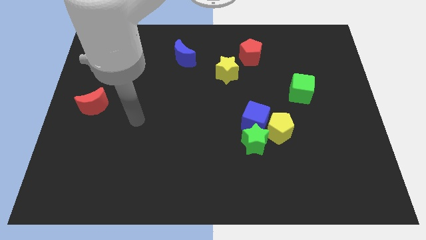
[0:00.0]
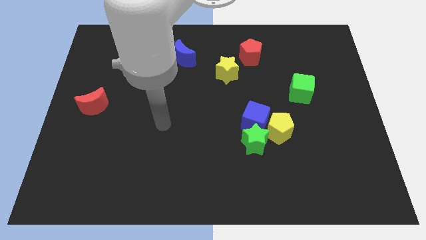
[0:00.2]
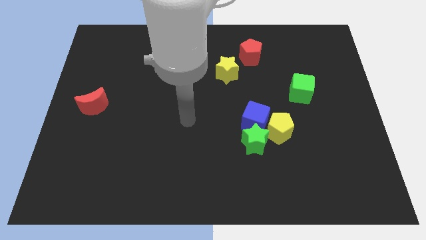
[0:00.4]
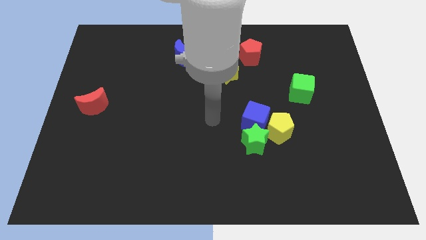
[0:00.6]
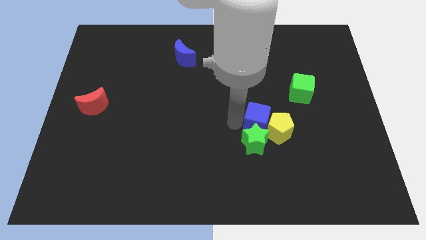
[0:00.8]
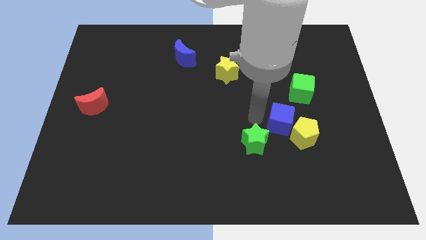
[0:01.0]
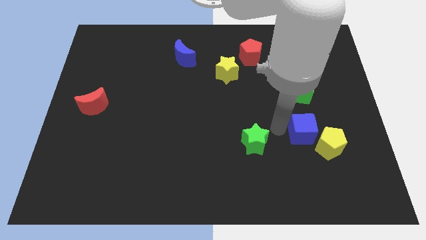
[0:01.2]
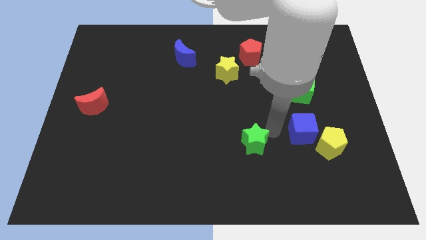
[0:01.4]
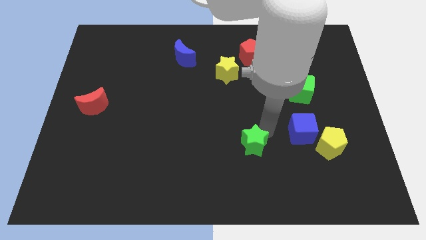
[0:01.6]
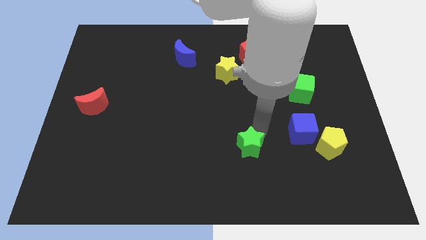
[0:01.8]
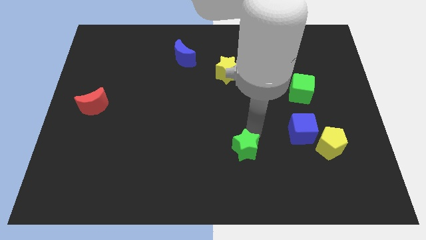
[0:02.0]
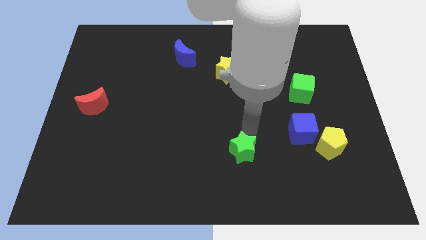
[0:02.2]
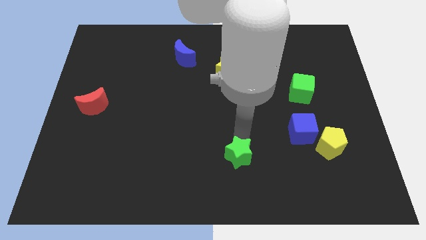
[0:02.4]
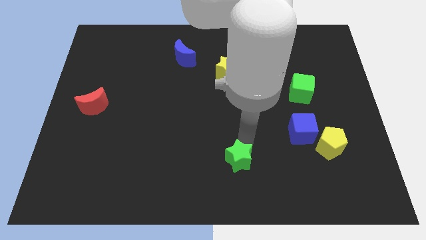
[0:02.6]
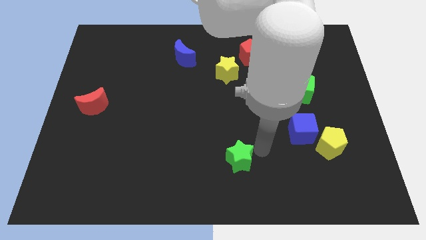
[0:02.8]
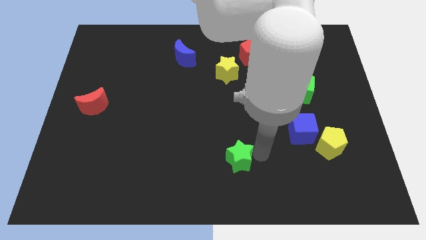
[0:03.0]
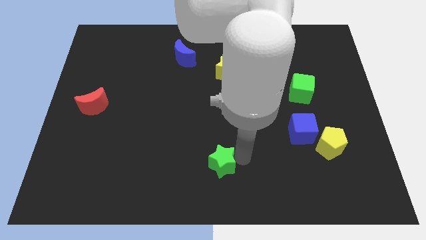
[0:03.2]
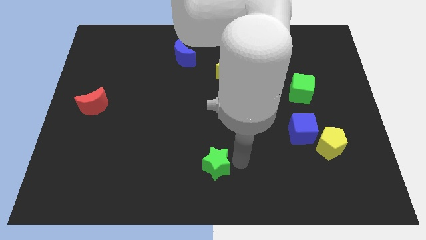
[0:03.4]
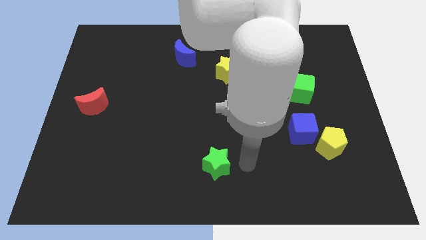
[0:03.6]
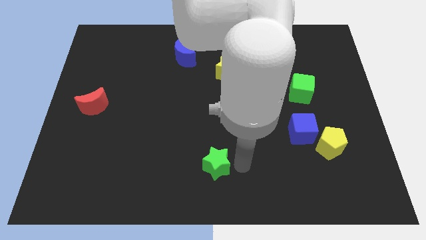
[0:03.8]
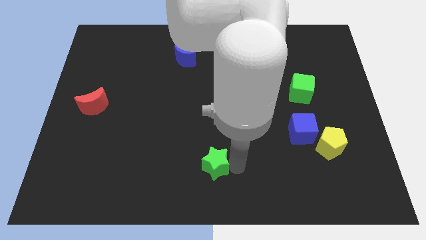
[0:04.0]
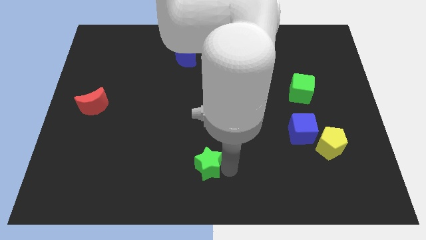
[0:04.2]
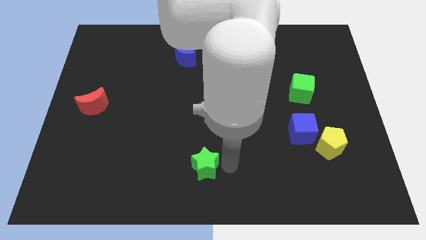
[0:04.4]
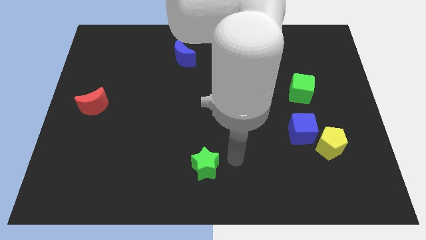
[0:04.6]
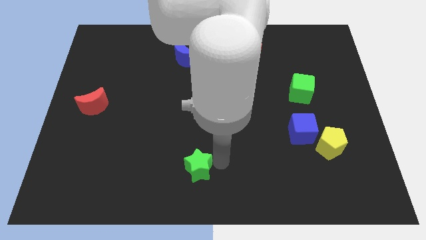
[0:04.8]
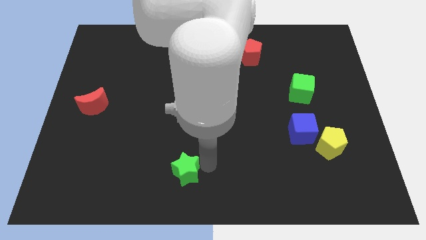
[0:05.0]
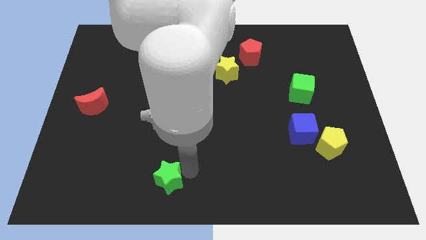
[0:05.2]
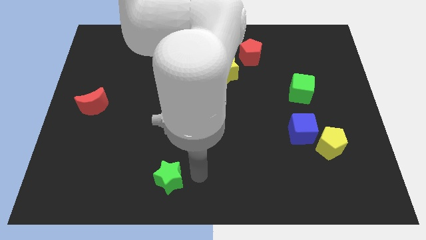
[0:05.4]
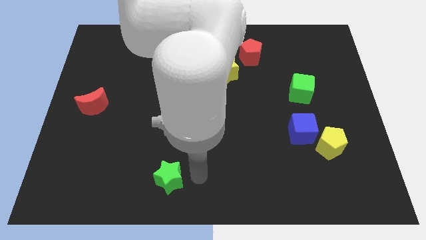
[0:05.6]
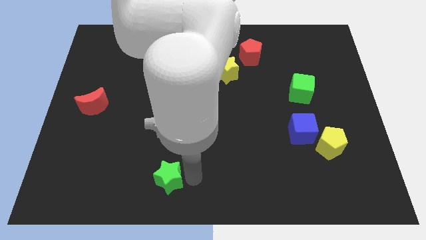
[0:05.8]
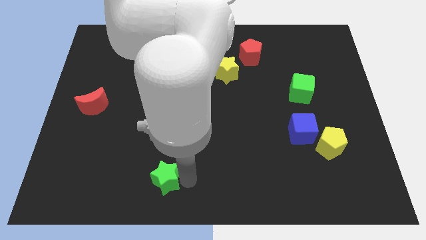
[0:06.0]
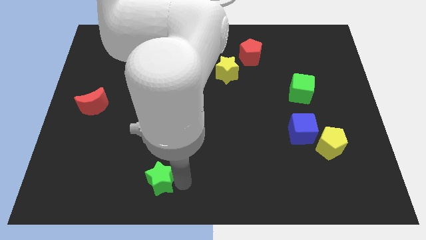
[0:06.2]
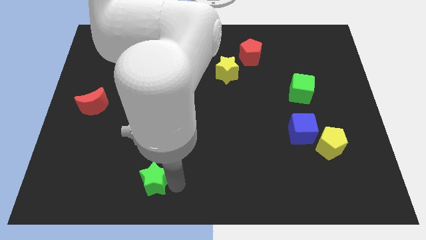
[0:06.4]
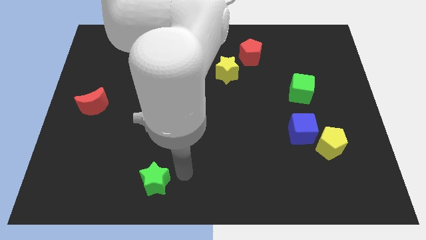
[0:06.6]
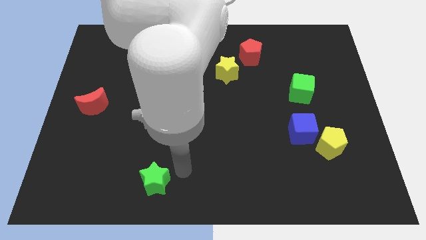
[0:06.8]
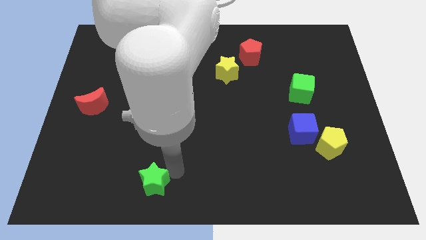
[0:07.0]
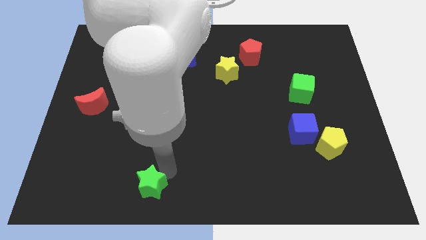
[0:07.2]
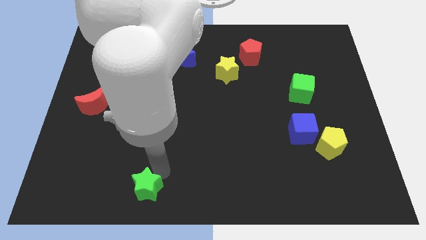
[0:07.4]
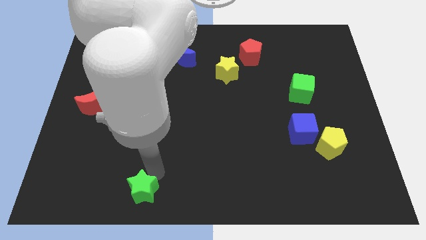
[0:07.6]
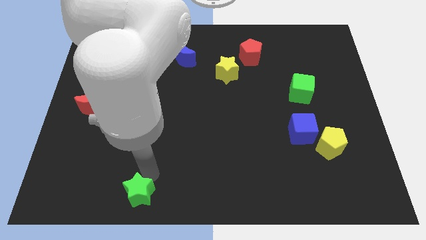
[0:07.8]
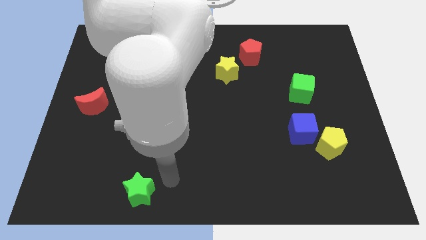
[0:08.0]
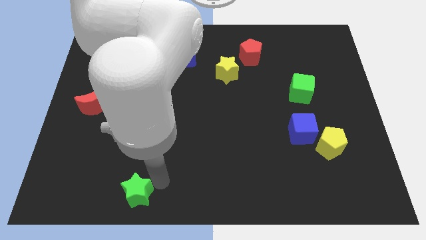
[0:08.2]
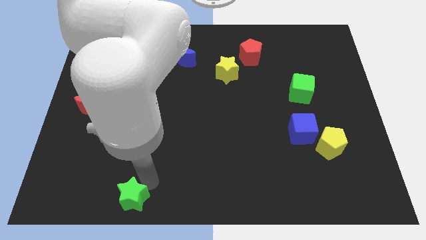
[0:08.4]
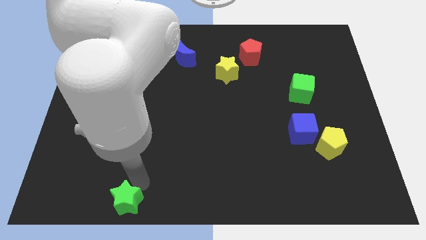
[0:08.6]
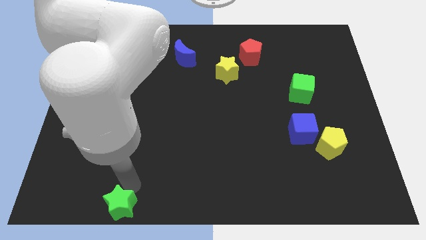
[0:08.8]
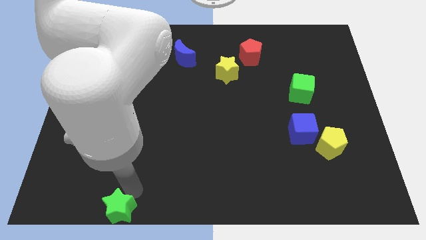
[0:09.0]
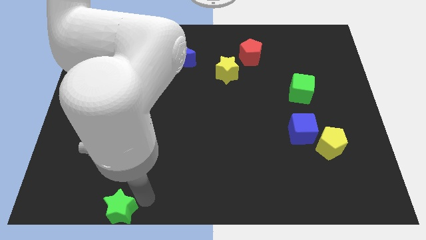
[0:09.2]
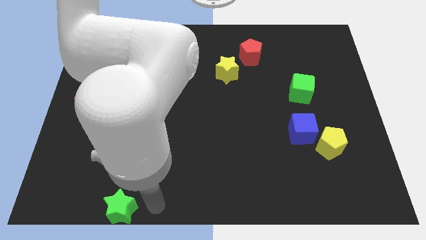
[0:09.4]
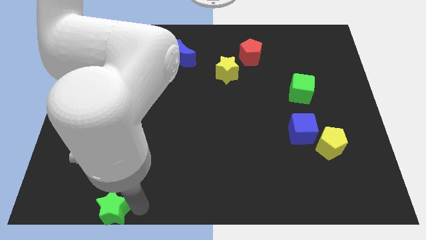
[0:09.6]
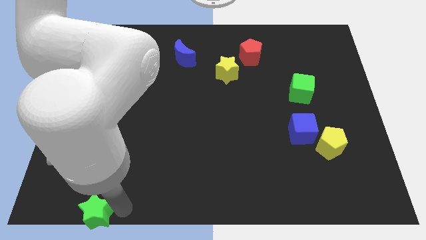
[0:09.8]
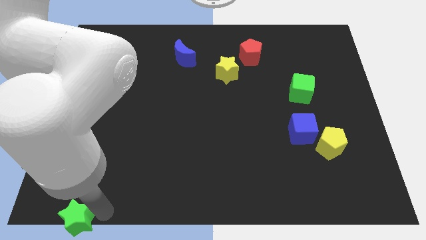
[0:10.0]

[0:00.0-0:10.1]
move the green star to the bottom left of the board
